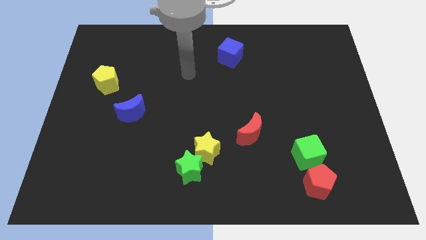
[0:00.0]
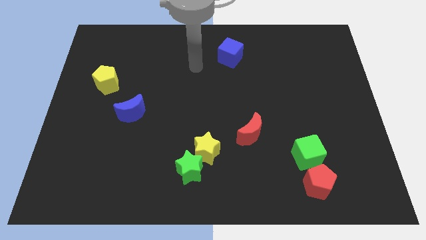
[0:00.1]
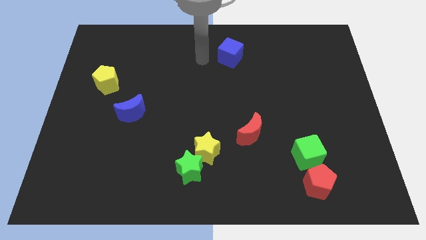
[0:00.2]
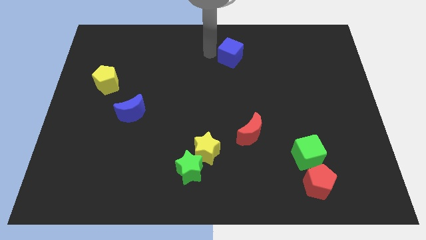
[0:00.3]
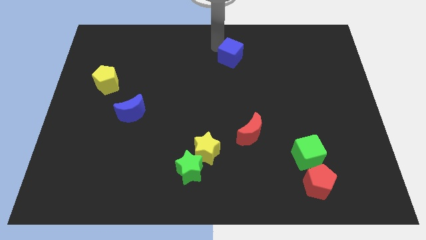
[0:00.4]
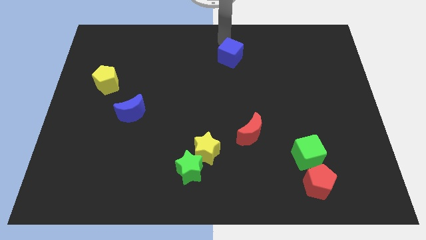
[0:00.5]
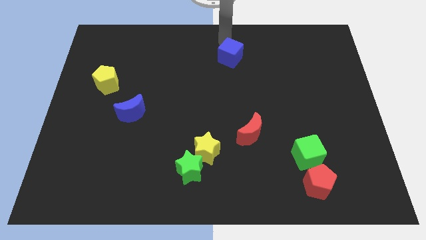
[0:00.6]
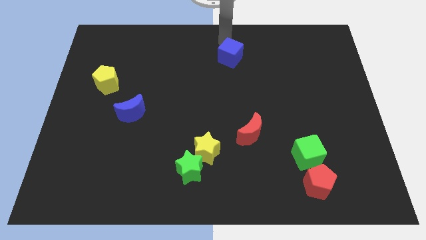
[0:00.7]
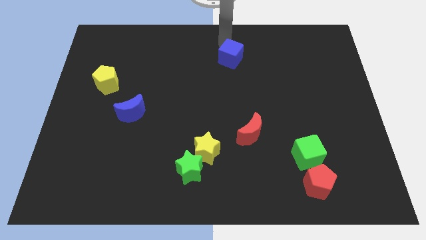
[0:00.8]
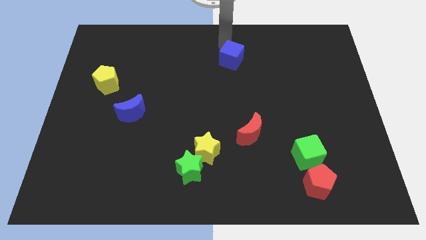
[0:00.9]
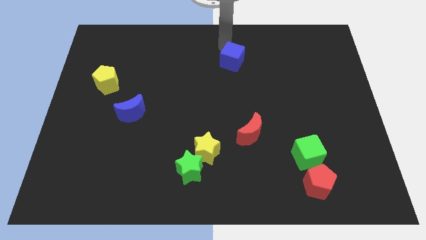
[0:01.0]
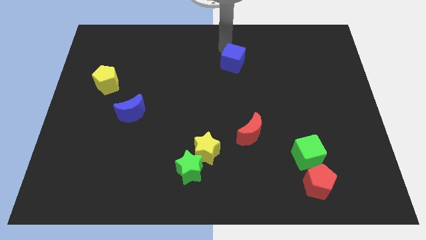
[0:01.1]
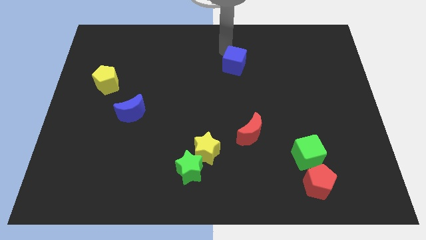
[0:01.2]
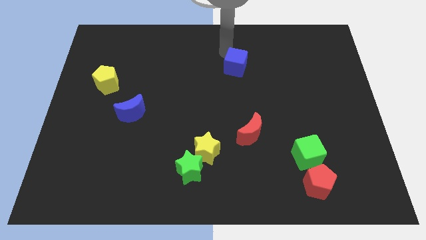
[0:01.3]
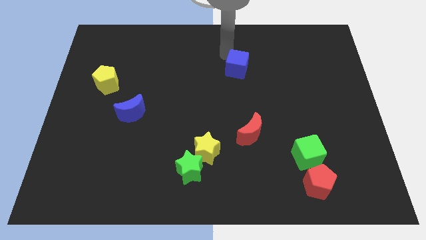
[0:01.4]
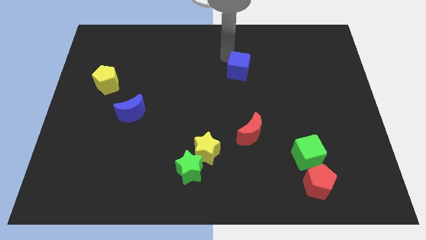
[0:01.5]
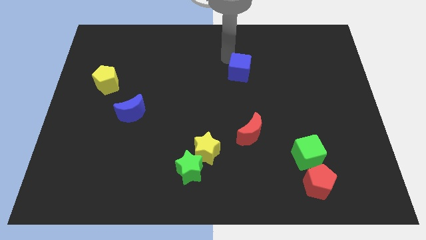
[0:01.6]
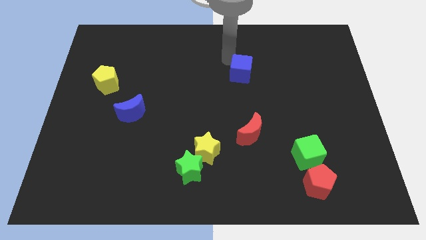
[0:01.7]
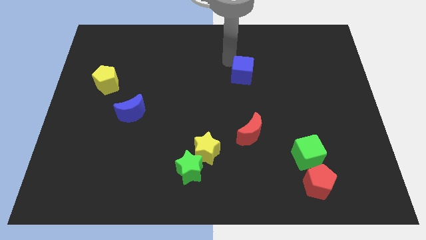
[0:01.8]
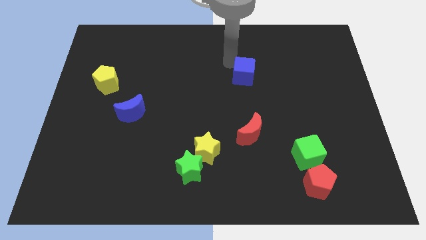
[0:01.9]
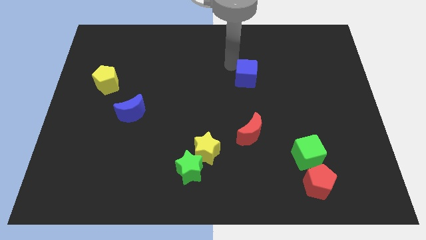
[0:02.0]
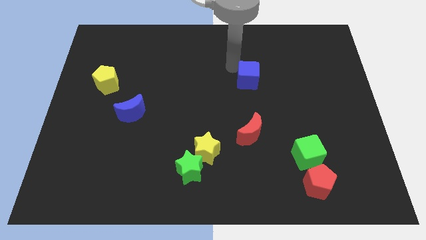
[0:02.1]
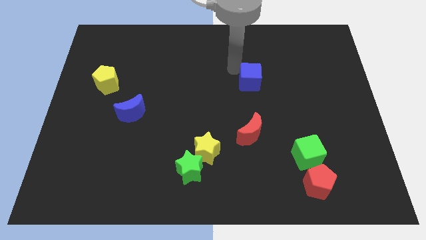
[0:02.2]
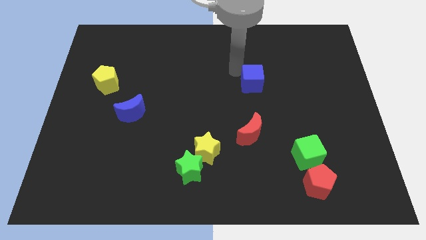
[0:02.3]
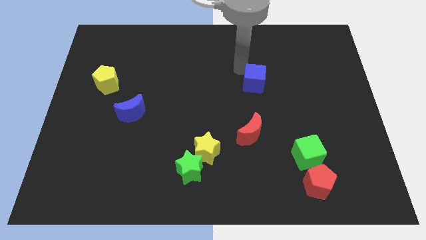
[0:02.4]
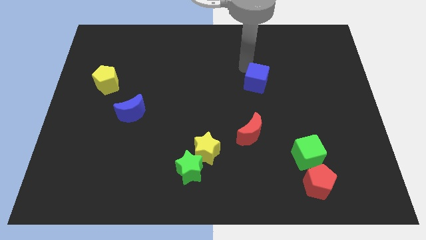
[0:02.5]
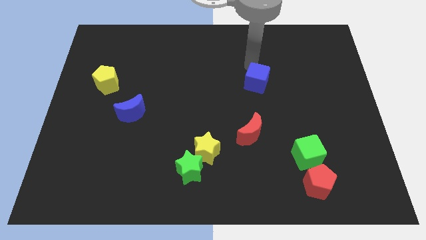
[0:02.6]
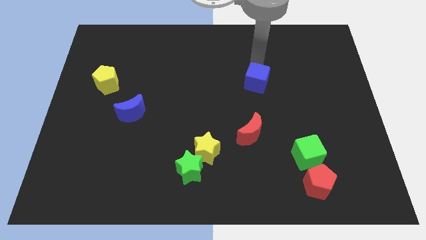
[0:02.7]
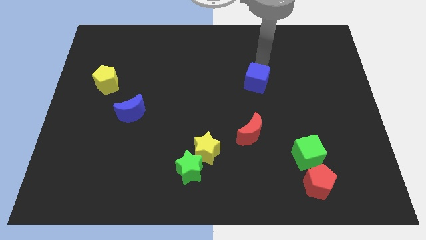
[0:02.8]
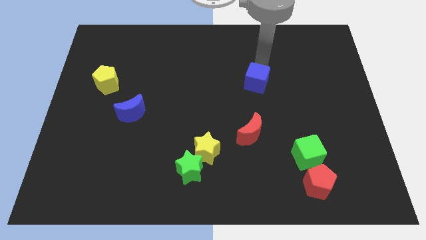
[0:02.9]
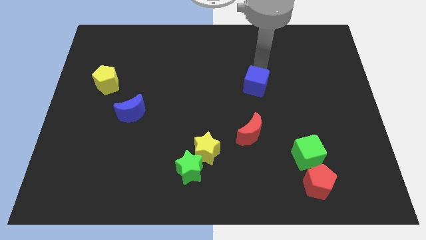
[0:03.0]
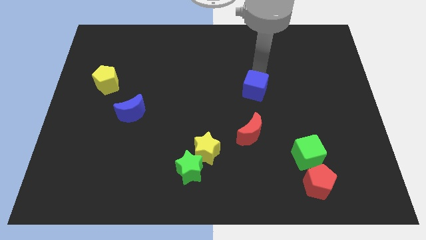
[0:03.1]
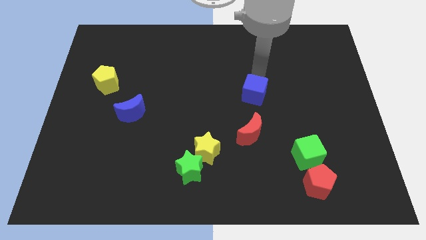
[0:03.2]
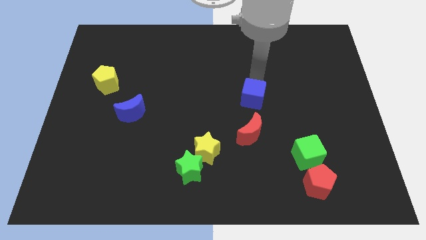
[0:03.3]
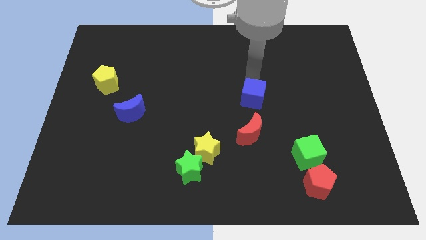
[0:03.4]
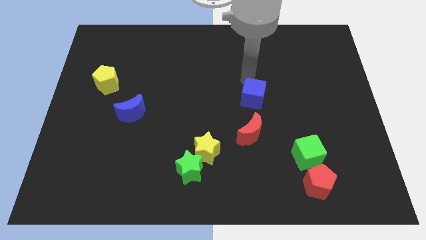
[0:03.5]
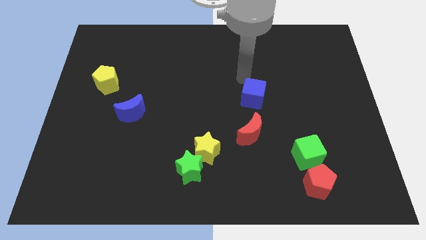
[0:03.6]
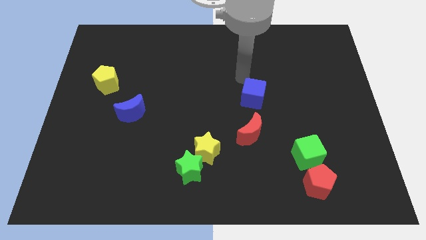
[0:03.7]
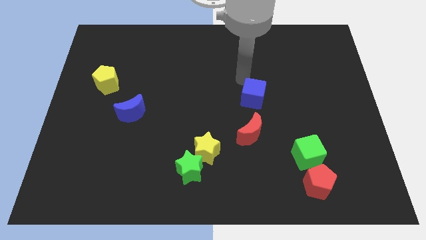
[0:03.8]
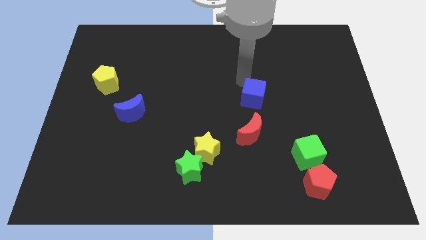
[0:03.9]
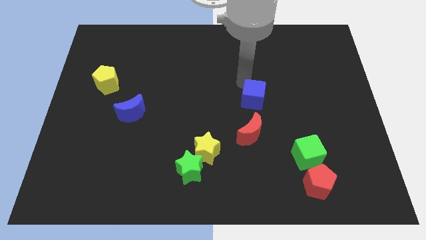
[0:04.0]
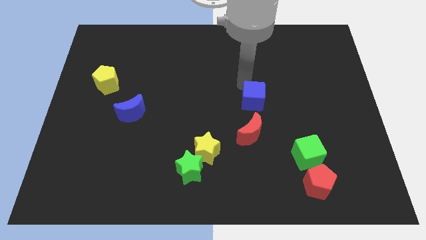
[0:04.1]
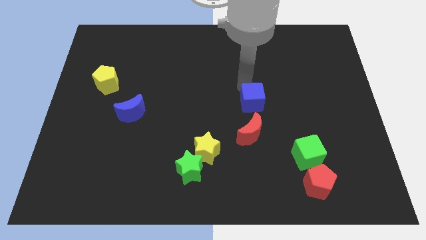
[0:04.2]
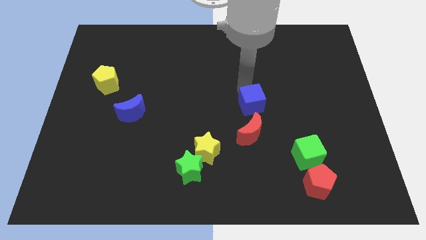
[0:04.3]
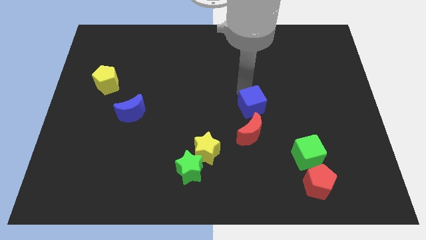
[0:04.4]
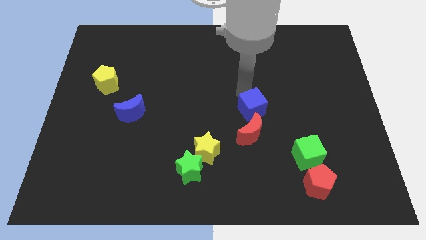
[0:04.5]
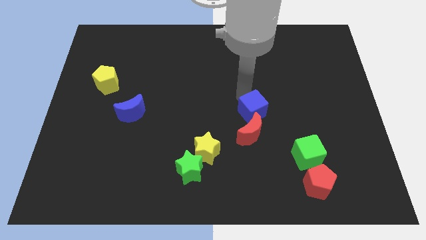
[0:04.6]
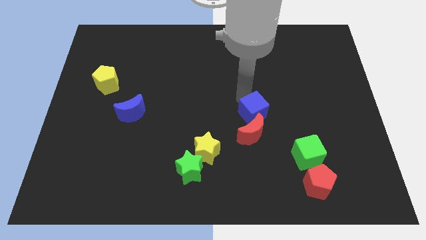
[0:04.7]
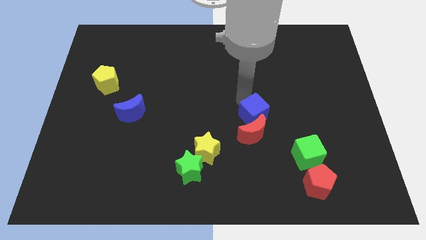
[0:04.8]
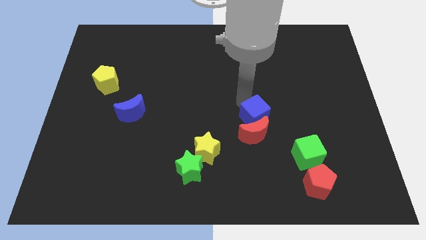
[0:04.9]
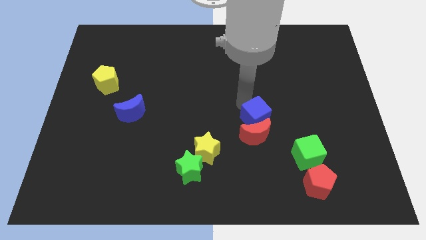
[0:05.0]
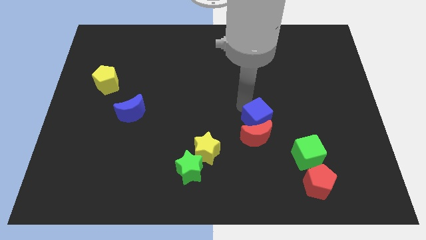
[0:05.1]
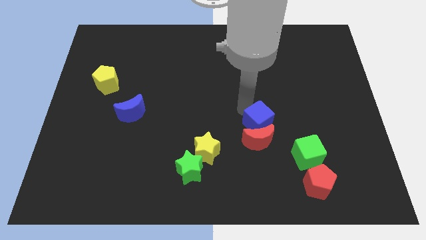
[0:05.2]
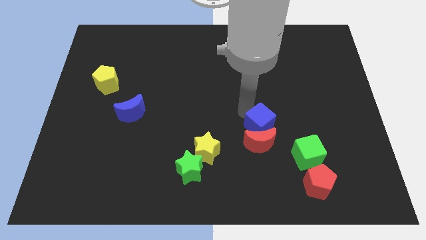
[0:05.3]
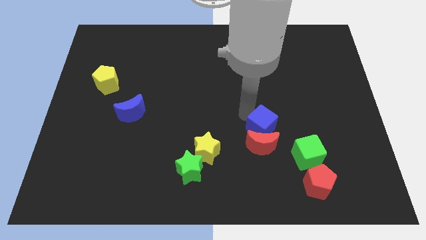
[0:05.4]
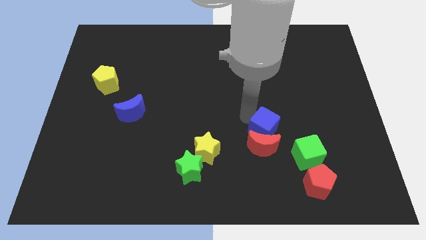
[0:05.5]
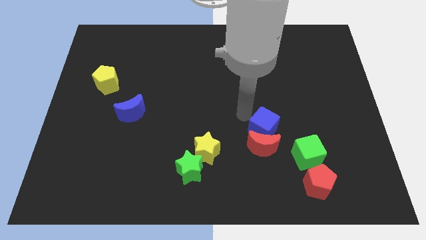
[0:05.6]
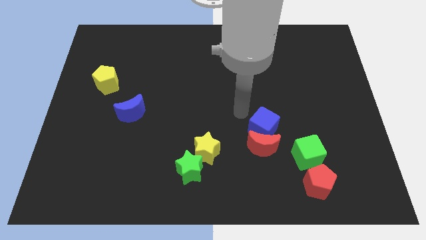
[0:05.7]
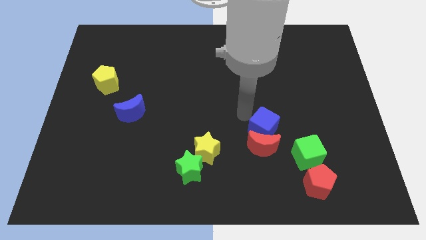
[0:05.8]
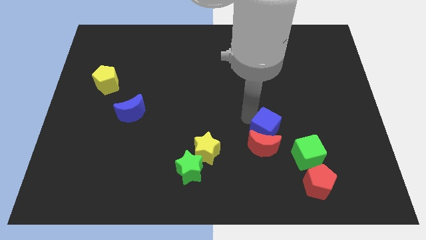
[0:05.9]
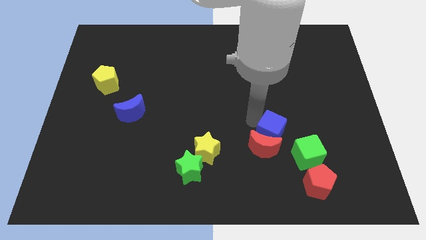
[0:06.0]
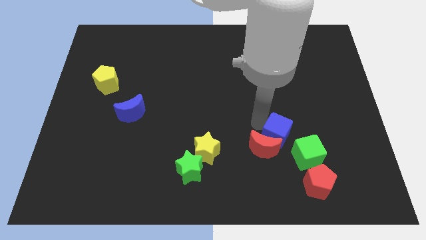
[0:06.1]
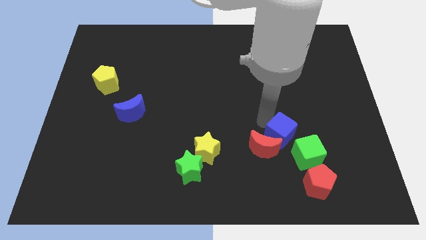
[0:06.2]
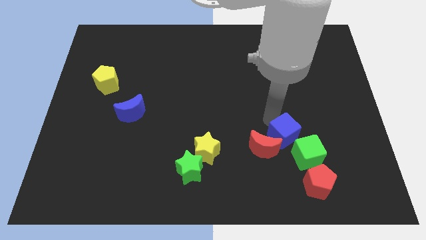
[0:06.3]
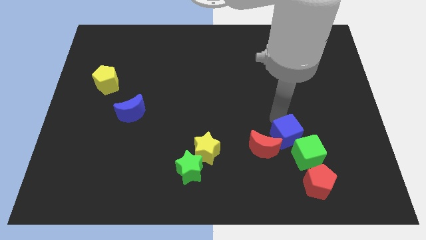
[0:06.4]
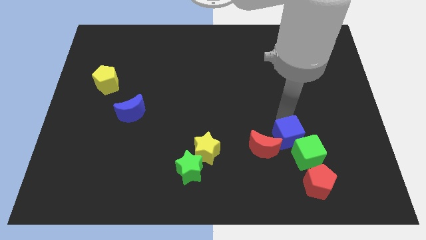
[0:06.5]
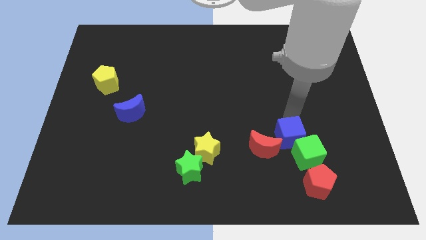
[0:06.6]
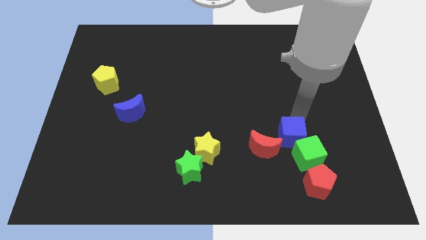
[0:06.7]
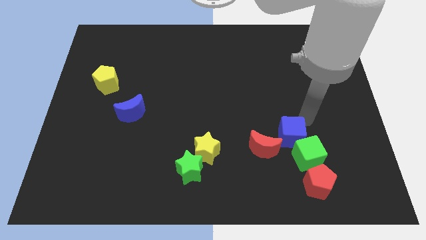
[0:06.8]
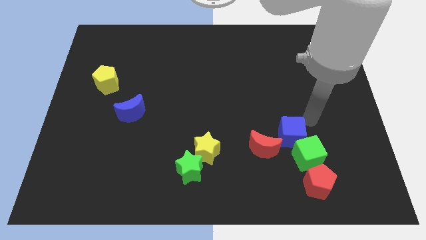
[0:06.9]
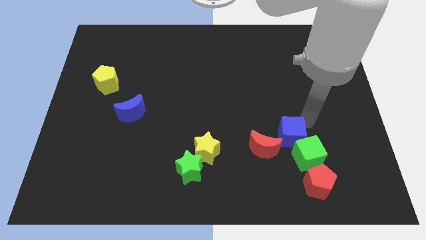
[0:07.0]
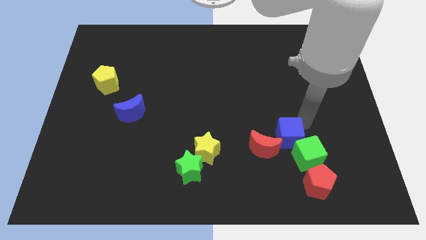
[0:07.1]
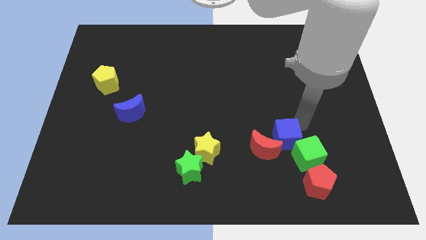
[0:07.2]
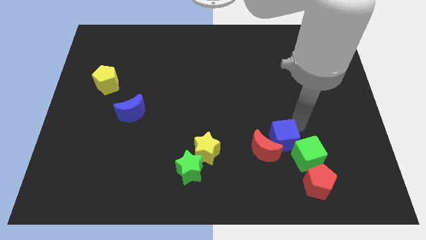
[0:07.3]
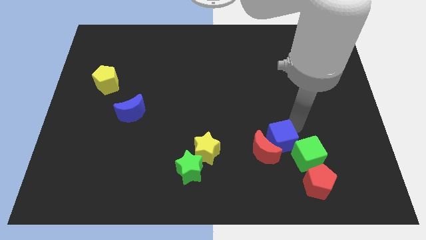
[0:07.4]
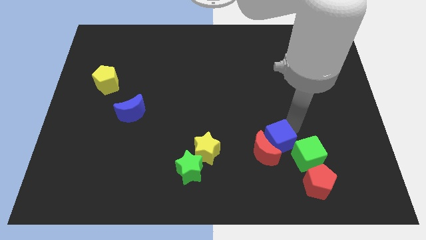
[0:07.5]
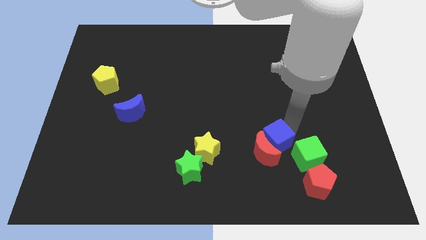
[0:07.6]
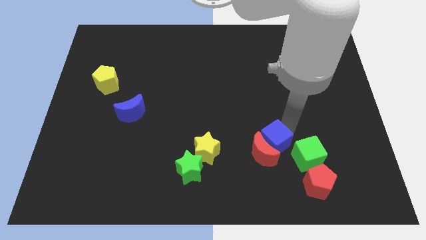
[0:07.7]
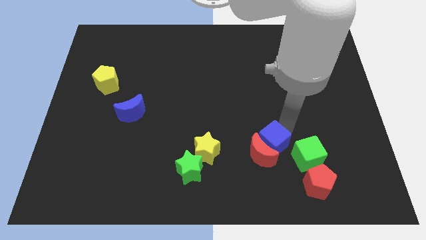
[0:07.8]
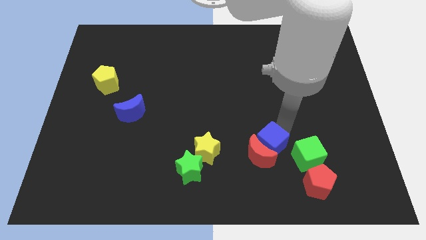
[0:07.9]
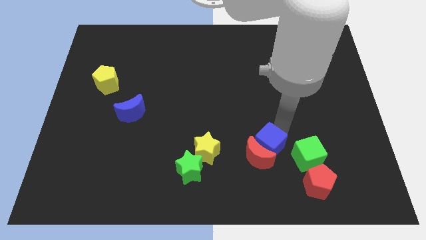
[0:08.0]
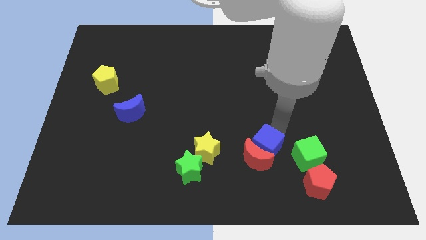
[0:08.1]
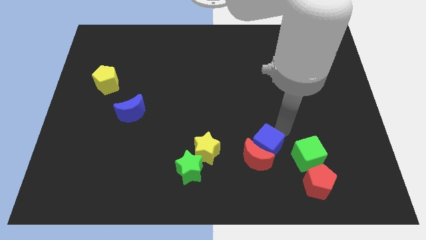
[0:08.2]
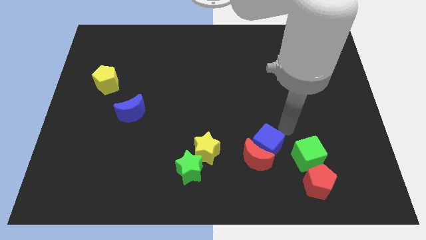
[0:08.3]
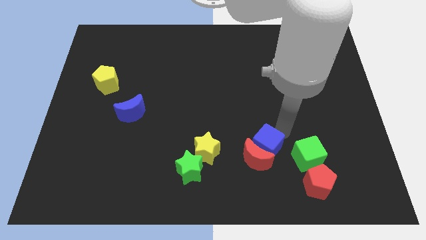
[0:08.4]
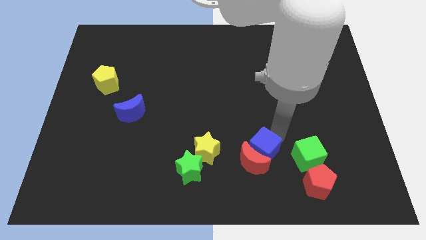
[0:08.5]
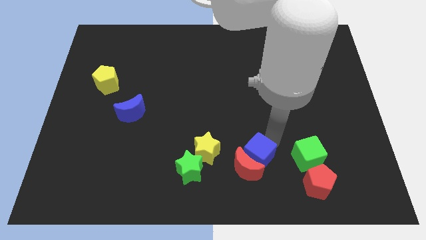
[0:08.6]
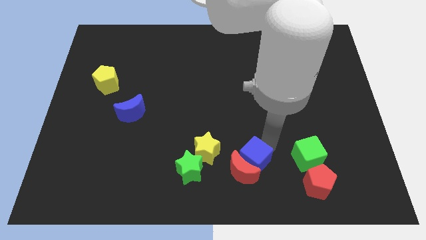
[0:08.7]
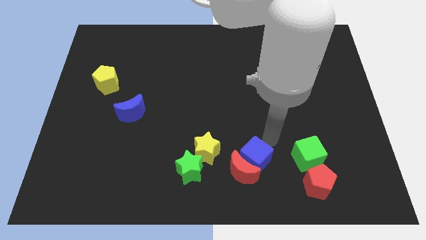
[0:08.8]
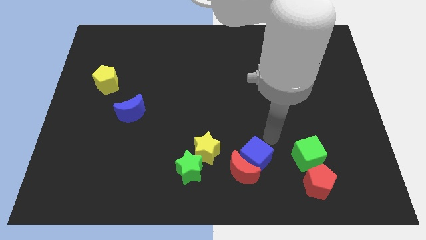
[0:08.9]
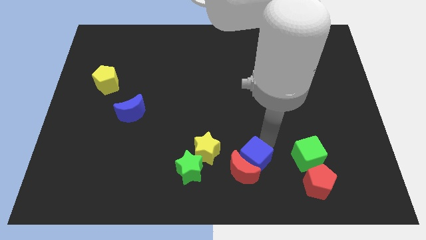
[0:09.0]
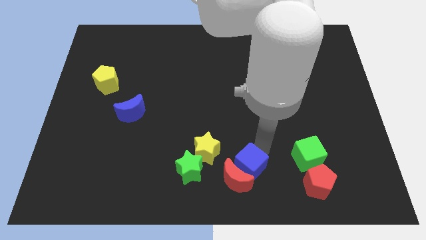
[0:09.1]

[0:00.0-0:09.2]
move the blue cube to the bottom side
